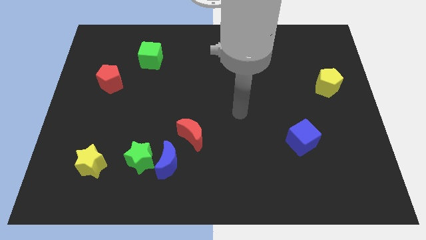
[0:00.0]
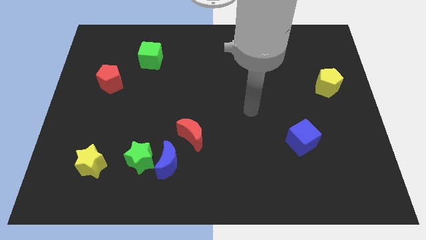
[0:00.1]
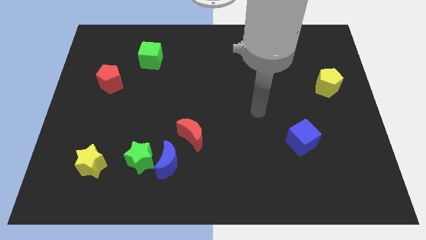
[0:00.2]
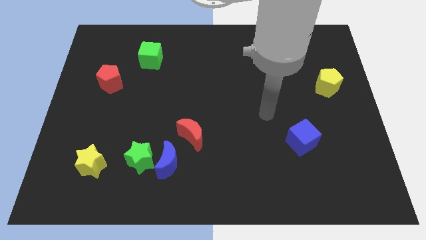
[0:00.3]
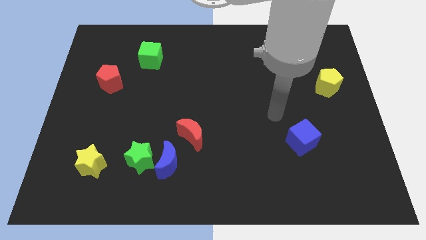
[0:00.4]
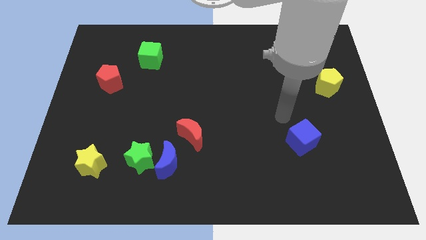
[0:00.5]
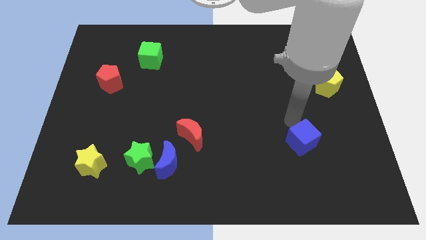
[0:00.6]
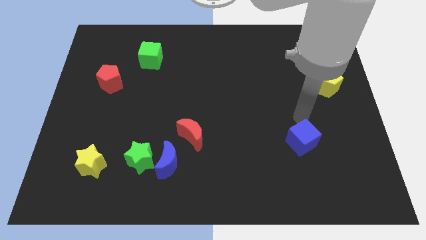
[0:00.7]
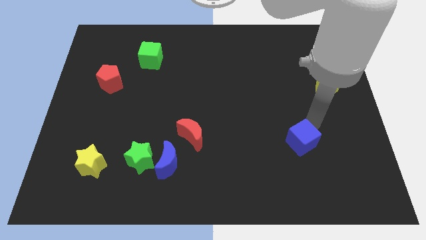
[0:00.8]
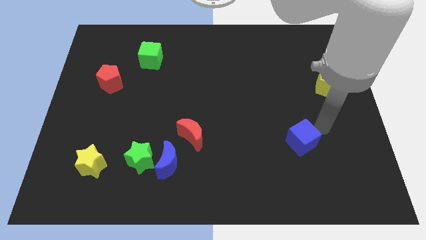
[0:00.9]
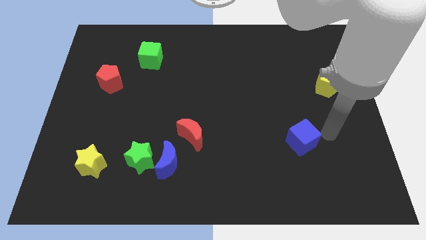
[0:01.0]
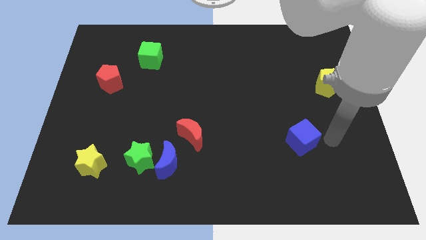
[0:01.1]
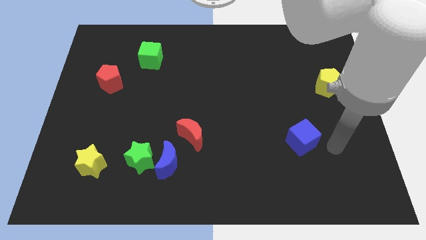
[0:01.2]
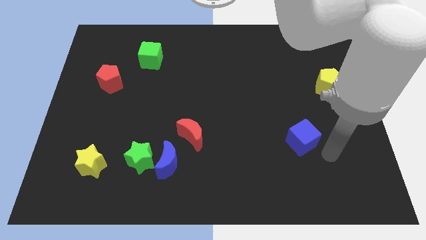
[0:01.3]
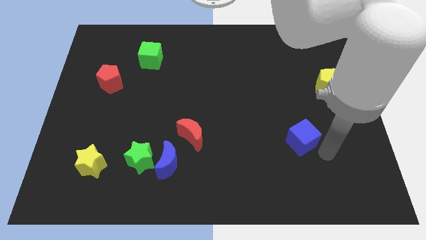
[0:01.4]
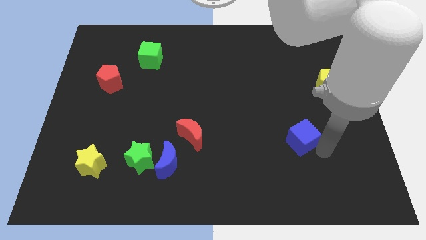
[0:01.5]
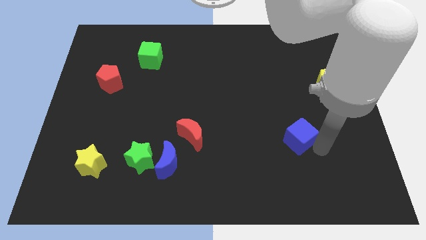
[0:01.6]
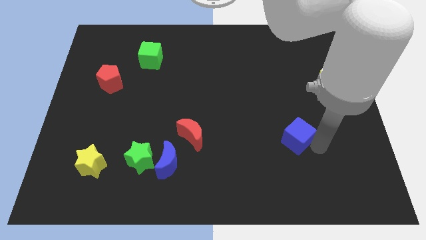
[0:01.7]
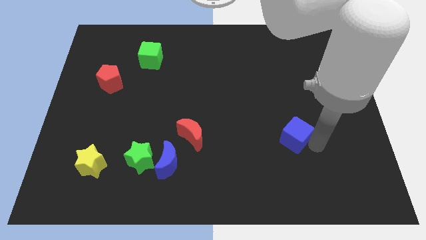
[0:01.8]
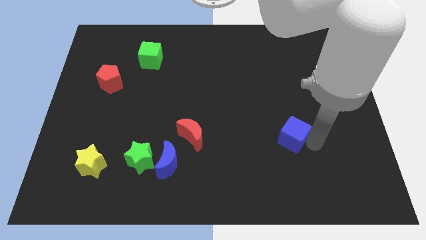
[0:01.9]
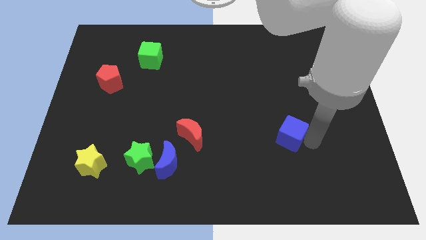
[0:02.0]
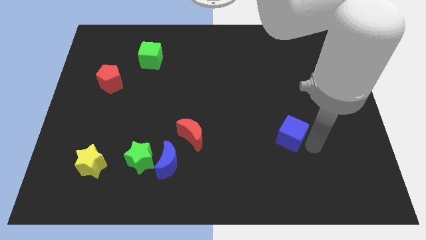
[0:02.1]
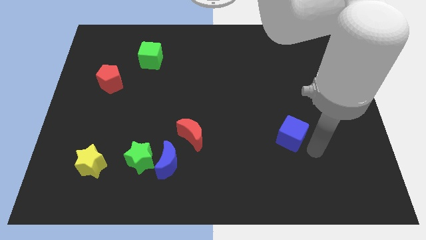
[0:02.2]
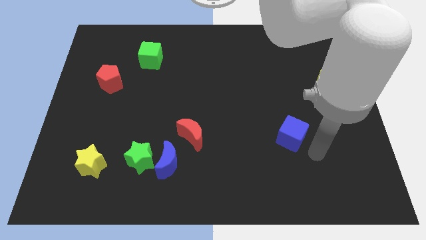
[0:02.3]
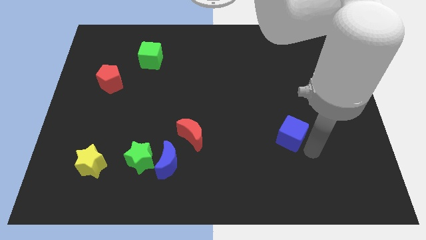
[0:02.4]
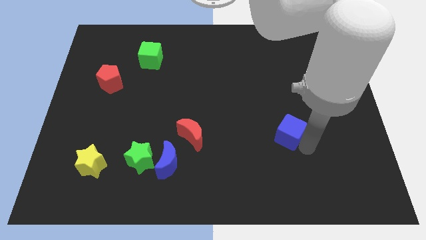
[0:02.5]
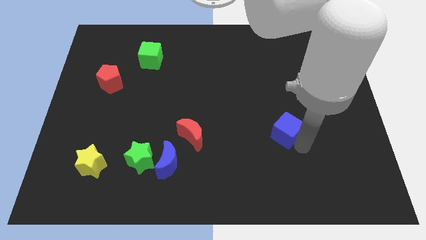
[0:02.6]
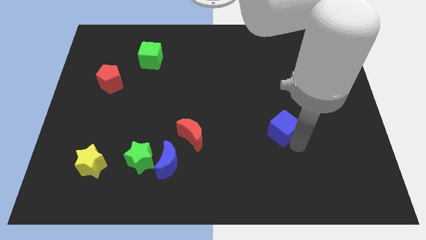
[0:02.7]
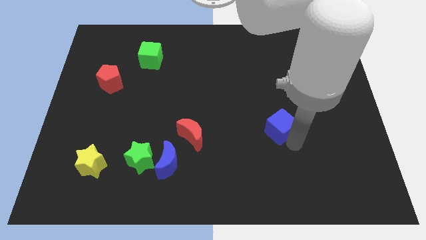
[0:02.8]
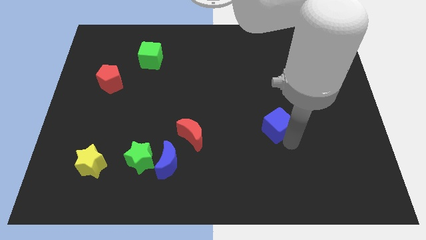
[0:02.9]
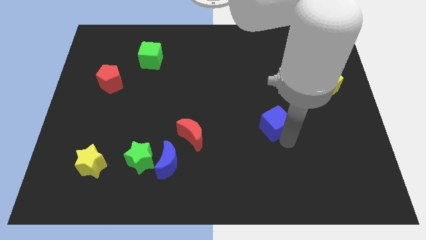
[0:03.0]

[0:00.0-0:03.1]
push the blue cube diagonally upwards and to the left somewhat

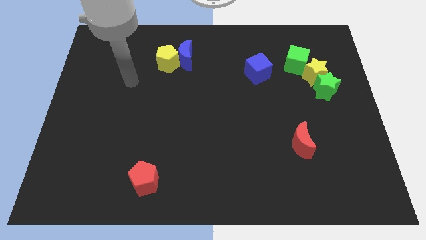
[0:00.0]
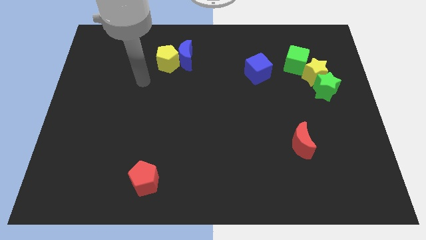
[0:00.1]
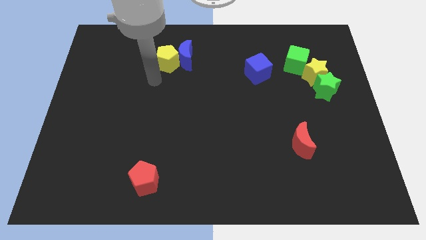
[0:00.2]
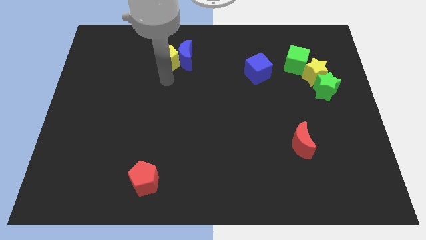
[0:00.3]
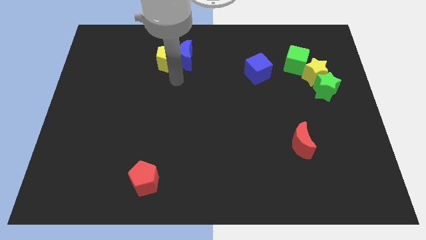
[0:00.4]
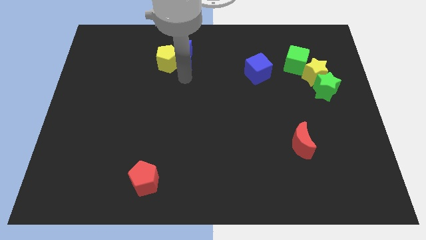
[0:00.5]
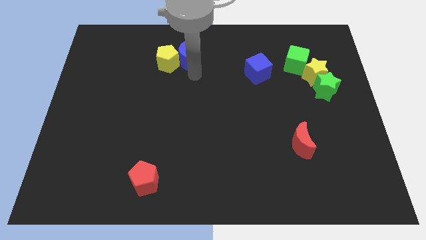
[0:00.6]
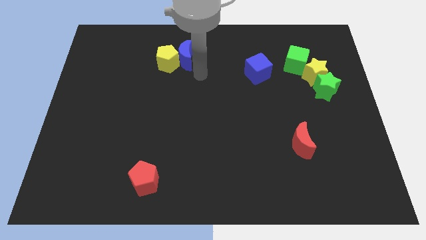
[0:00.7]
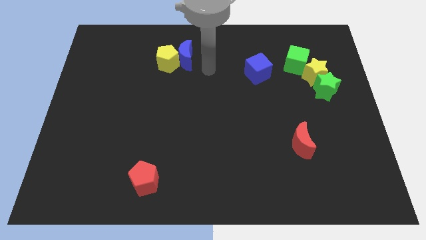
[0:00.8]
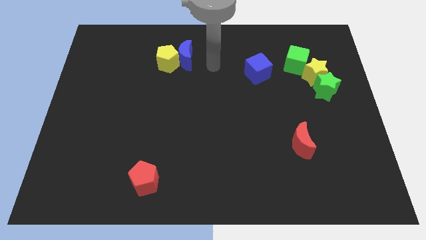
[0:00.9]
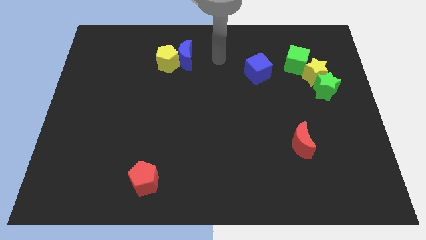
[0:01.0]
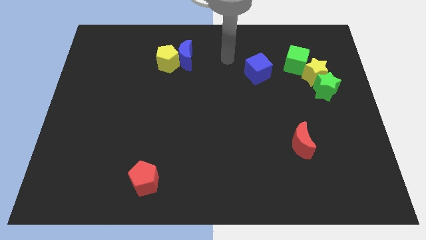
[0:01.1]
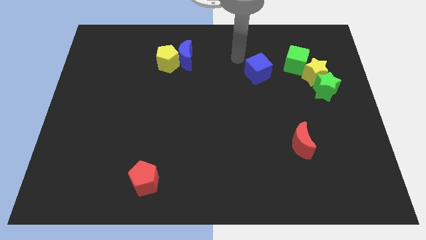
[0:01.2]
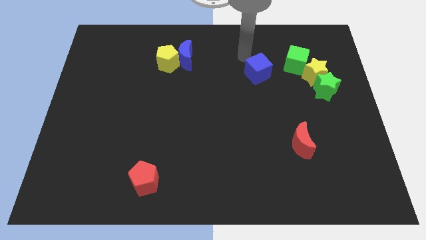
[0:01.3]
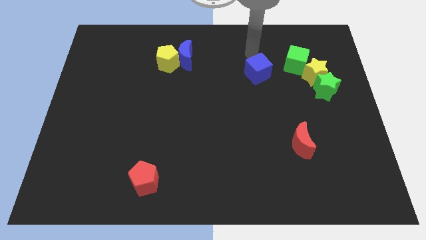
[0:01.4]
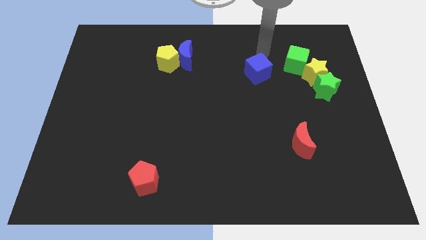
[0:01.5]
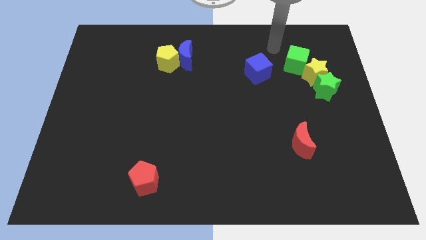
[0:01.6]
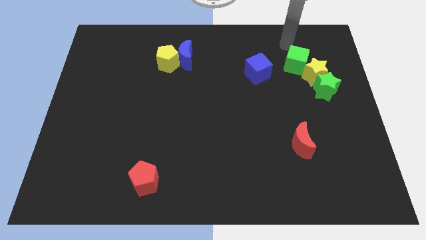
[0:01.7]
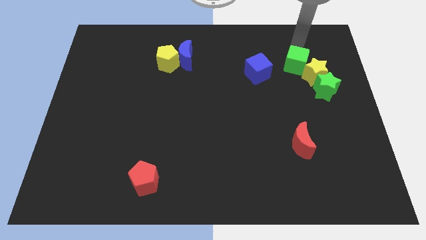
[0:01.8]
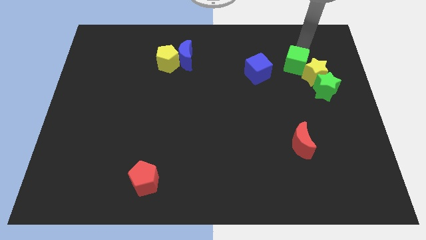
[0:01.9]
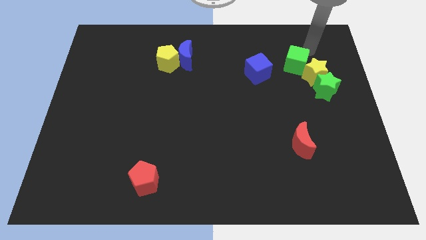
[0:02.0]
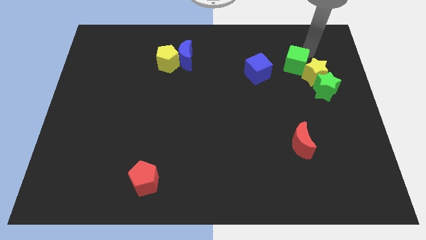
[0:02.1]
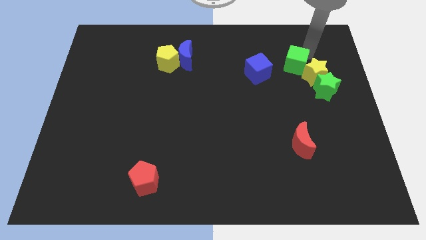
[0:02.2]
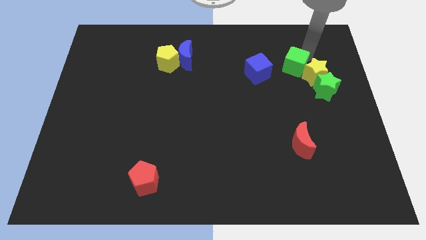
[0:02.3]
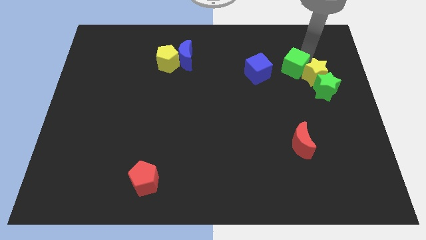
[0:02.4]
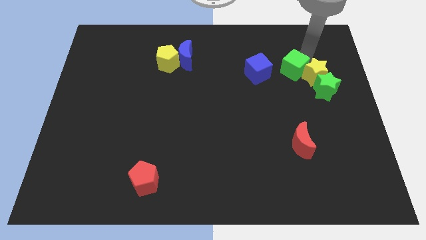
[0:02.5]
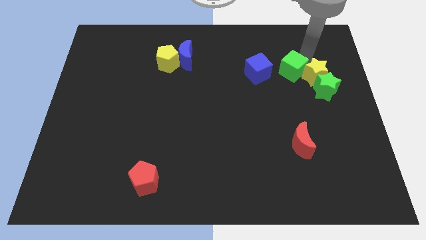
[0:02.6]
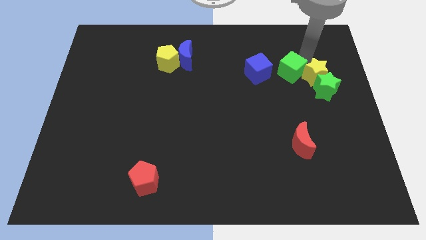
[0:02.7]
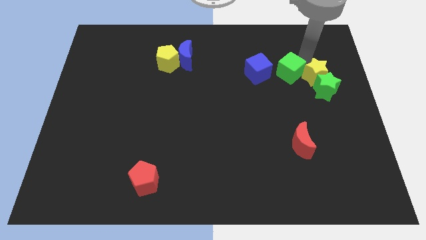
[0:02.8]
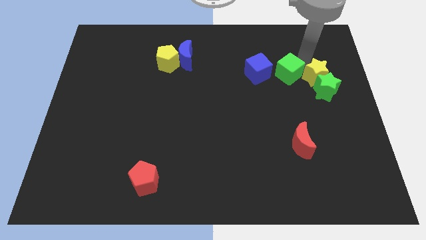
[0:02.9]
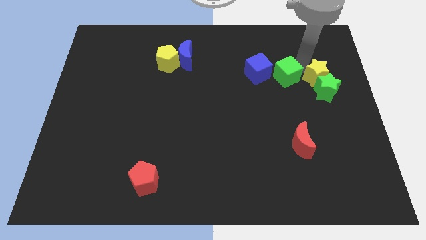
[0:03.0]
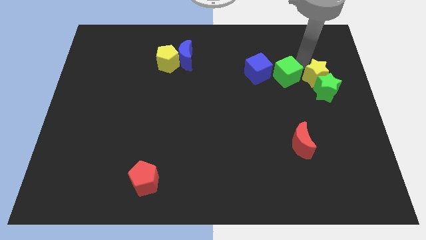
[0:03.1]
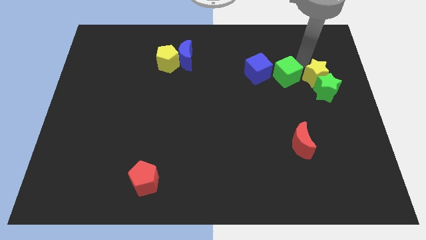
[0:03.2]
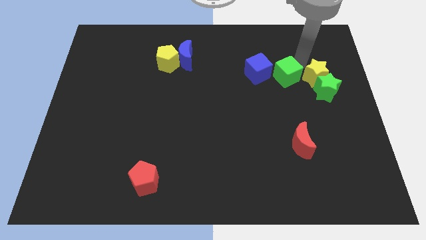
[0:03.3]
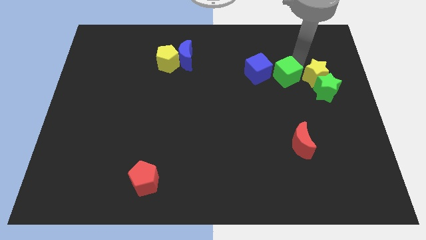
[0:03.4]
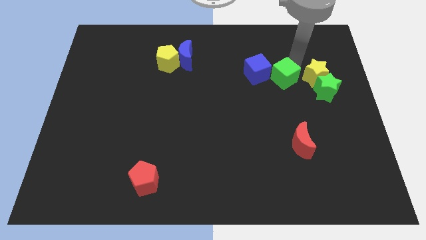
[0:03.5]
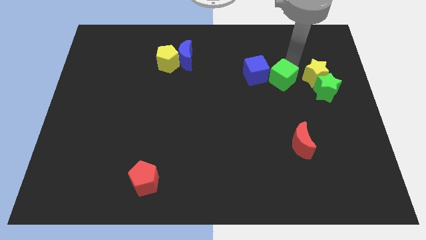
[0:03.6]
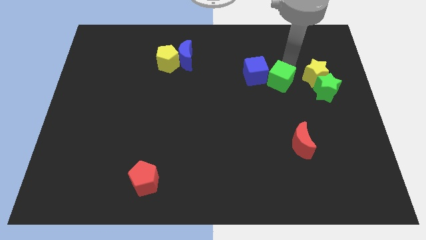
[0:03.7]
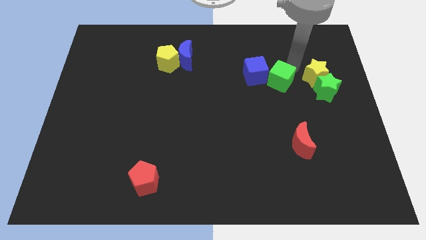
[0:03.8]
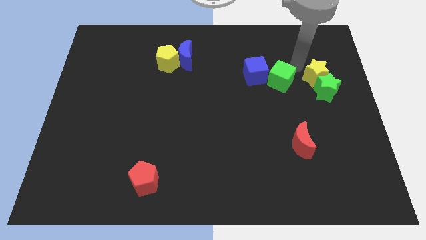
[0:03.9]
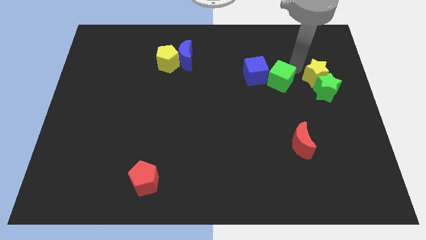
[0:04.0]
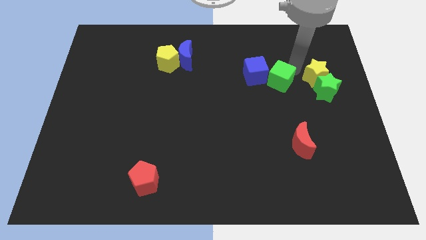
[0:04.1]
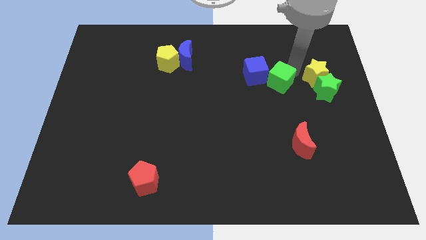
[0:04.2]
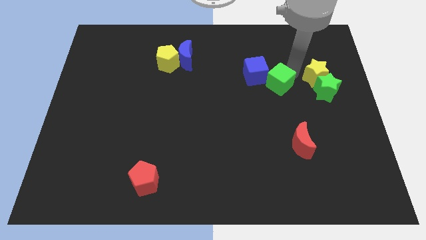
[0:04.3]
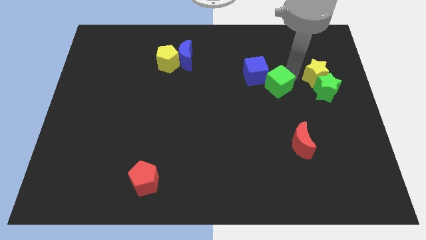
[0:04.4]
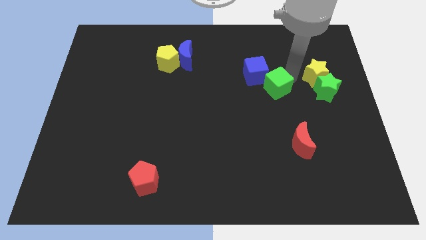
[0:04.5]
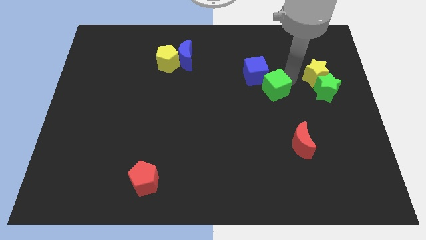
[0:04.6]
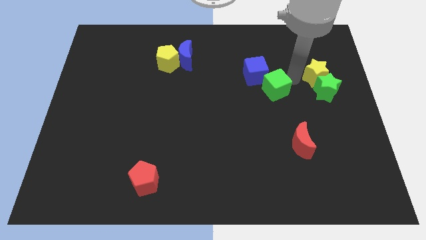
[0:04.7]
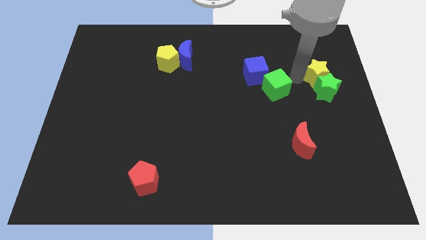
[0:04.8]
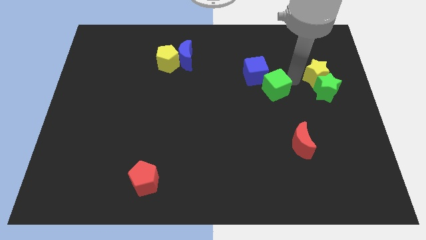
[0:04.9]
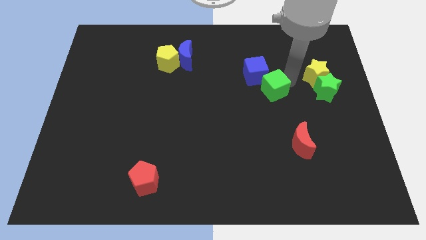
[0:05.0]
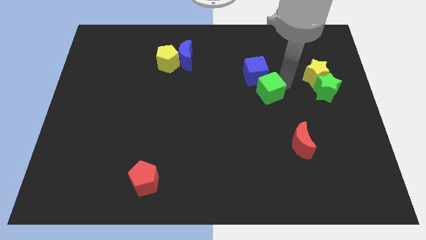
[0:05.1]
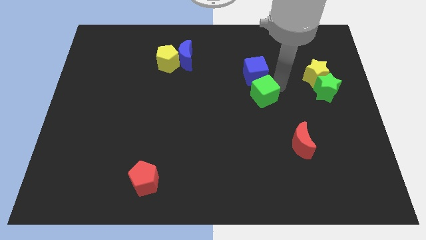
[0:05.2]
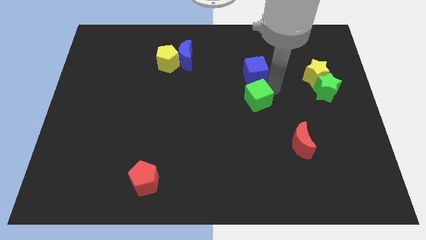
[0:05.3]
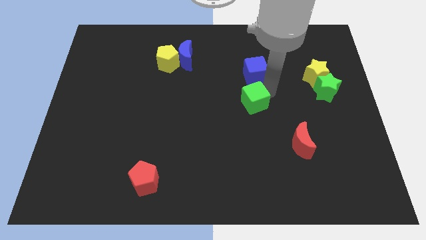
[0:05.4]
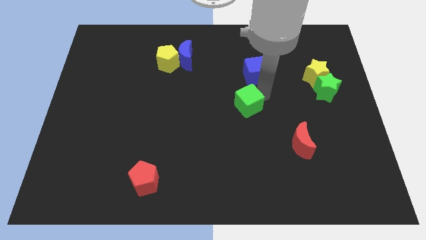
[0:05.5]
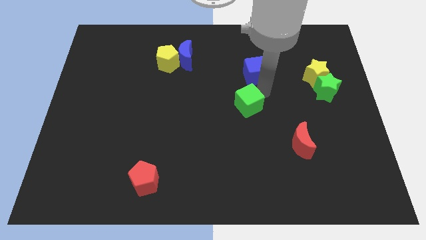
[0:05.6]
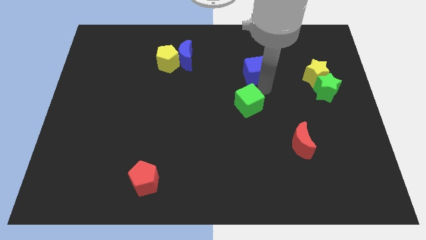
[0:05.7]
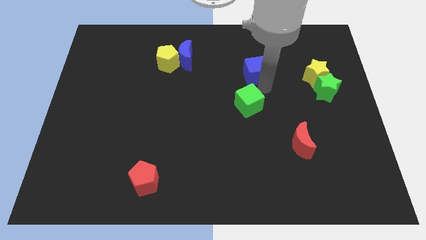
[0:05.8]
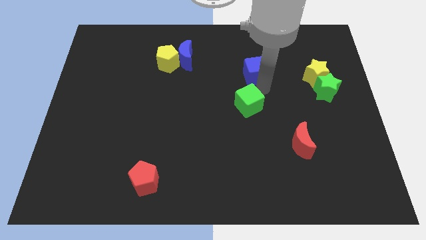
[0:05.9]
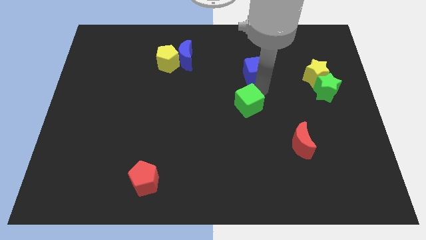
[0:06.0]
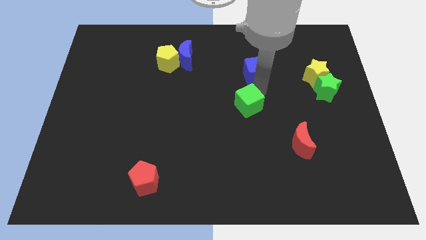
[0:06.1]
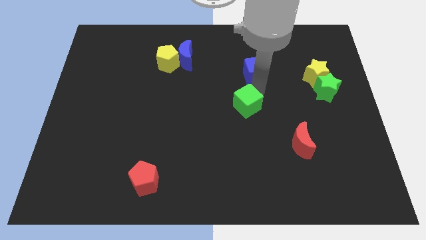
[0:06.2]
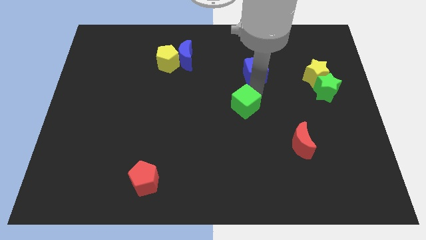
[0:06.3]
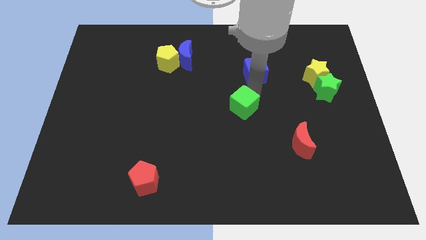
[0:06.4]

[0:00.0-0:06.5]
push the green cube downwards and left diagonally
